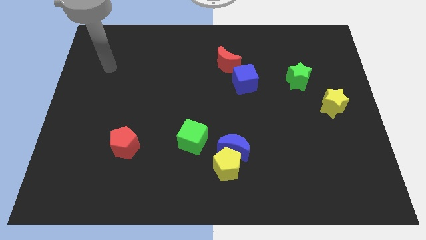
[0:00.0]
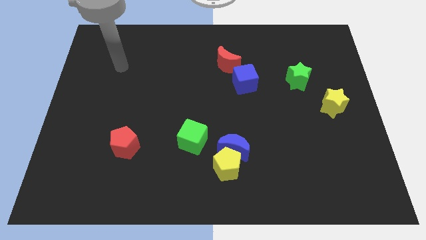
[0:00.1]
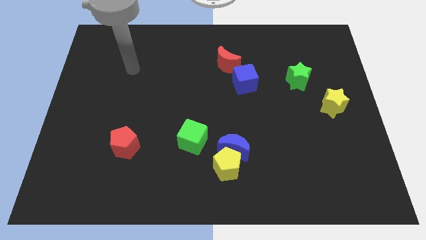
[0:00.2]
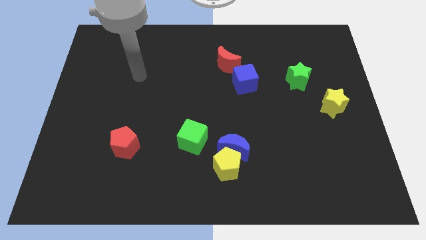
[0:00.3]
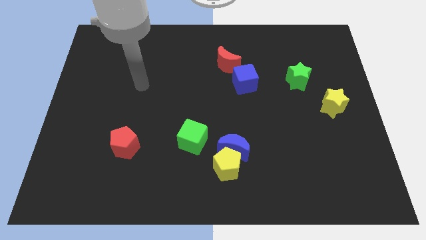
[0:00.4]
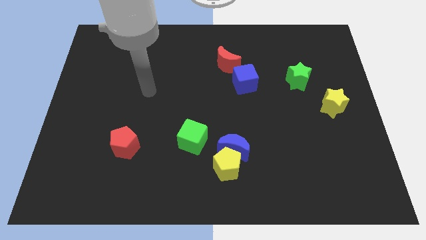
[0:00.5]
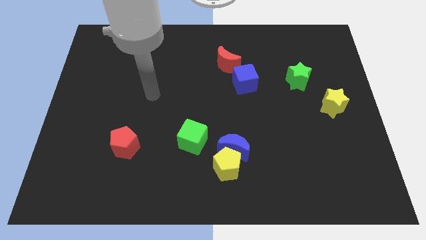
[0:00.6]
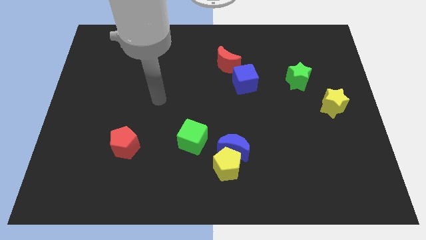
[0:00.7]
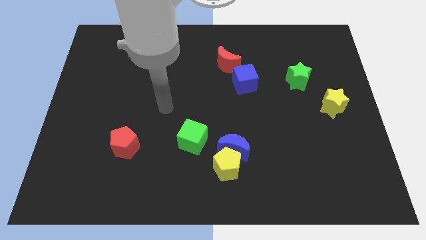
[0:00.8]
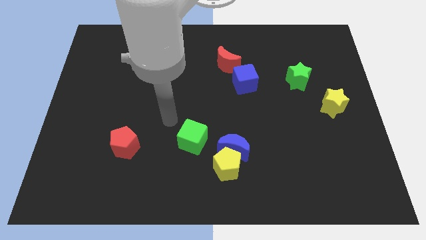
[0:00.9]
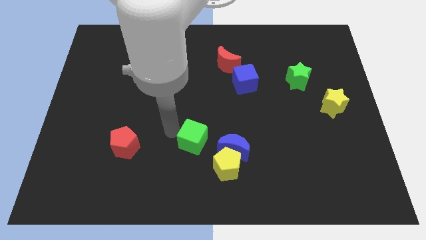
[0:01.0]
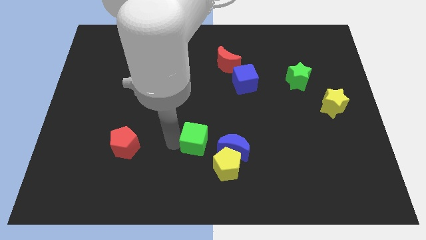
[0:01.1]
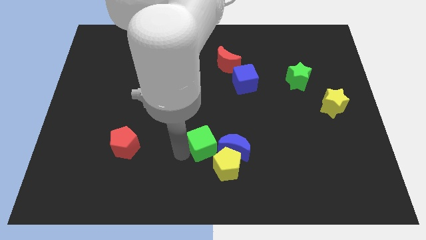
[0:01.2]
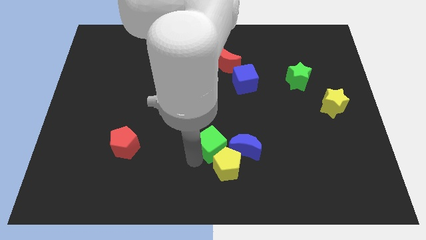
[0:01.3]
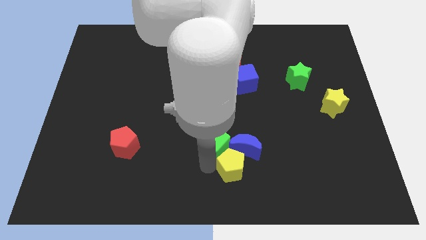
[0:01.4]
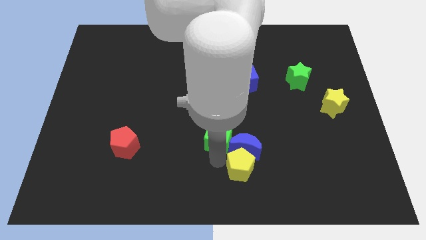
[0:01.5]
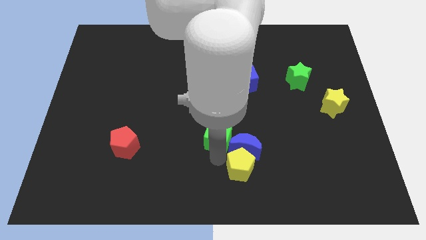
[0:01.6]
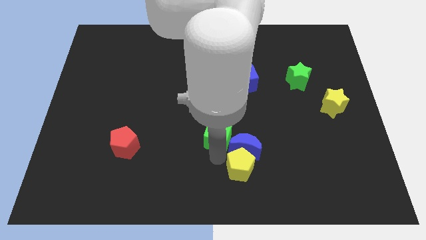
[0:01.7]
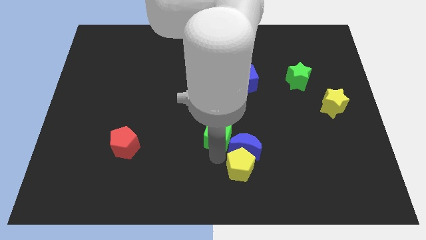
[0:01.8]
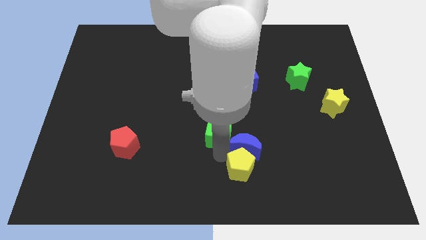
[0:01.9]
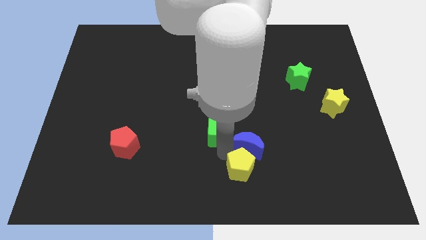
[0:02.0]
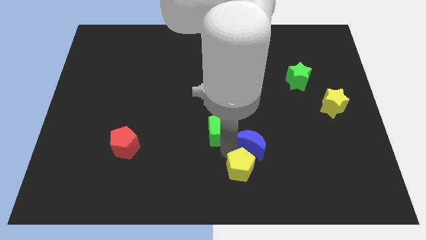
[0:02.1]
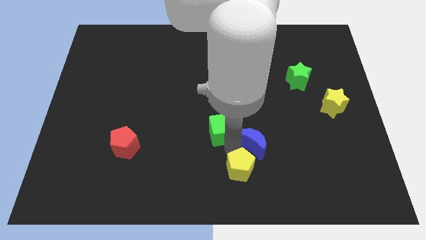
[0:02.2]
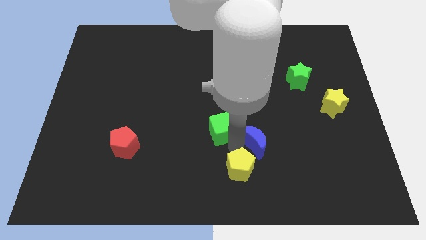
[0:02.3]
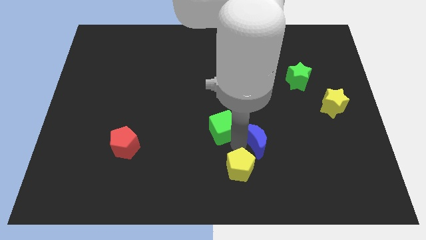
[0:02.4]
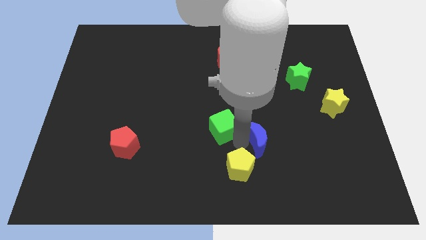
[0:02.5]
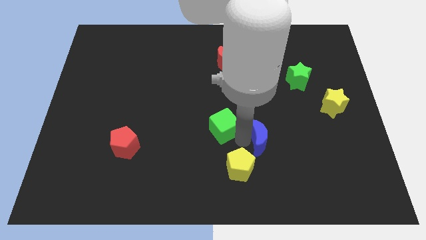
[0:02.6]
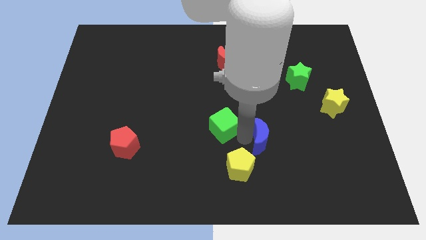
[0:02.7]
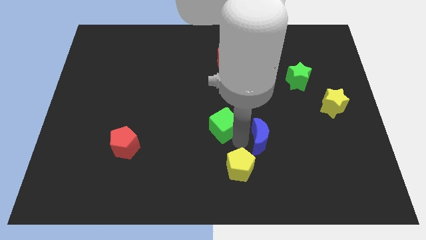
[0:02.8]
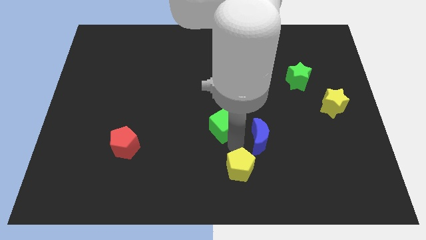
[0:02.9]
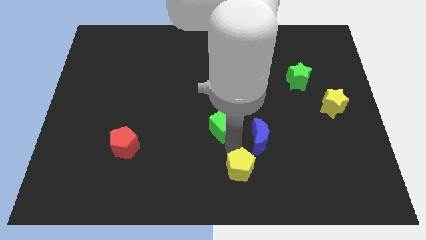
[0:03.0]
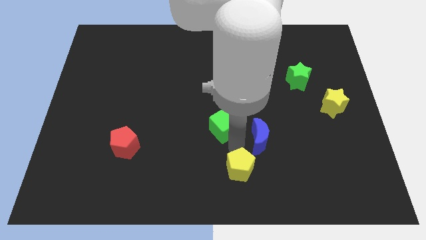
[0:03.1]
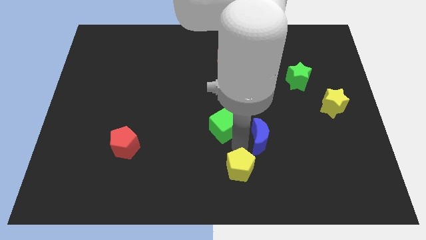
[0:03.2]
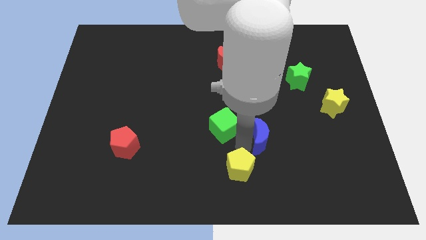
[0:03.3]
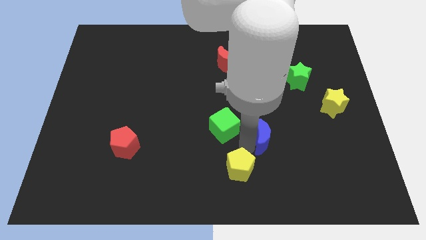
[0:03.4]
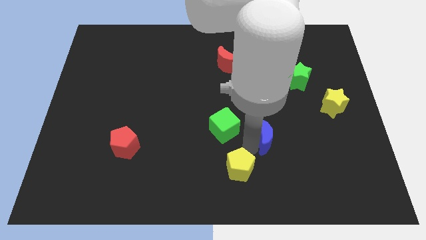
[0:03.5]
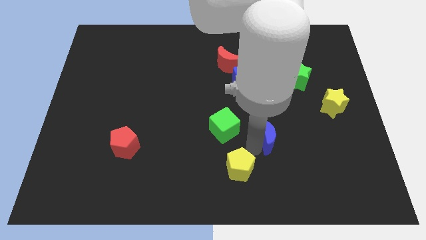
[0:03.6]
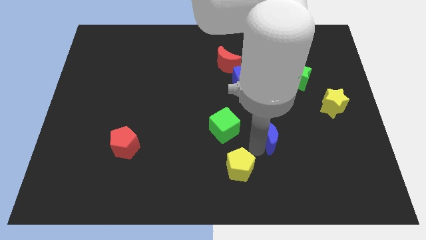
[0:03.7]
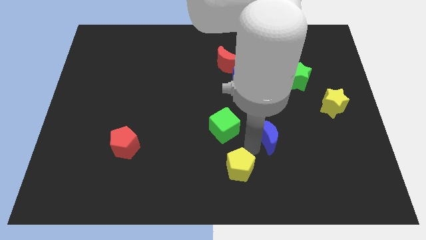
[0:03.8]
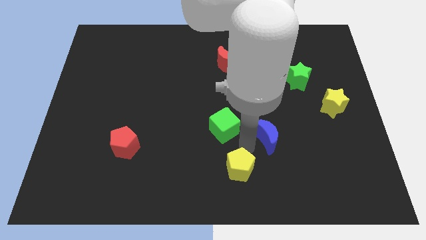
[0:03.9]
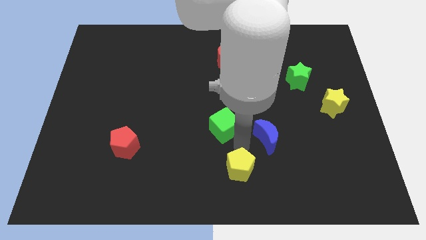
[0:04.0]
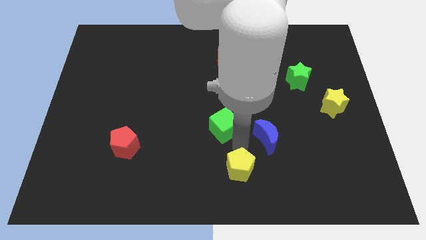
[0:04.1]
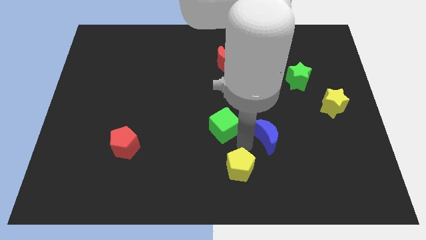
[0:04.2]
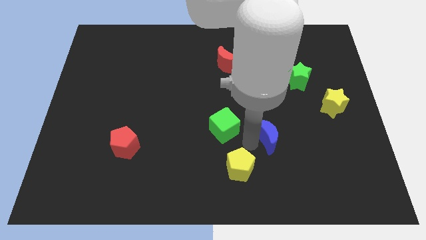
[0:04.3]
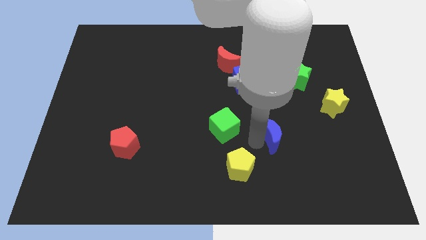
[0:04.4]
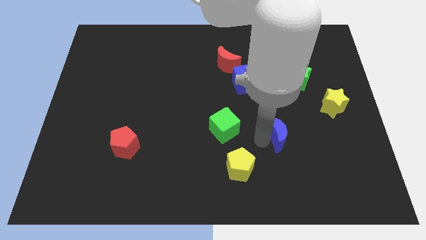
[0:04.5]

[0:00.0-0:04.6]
move the blue moon away from the yellow pentagon and green cube

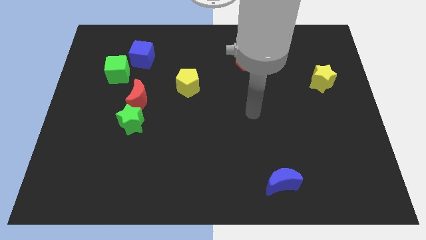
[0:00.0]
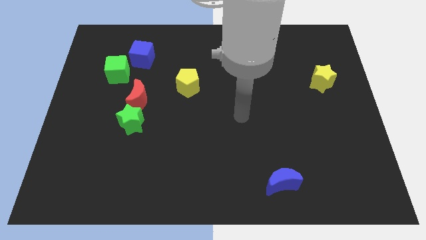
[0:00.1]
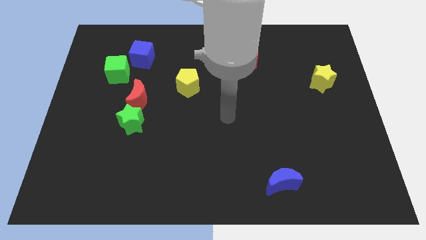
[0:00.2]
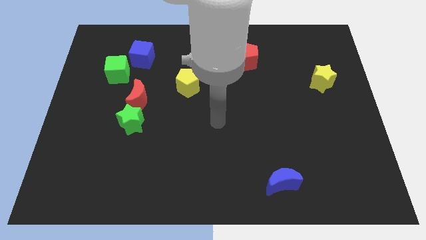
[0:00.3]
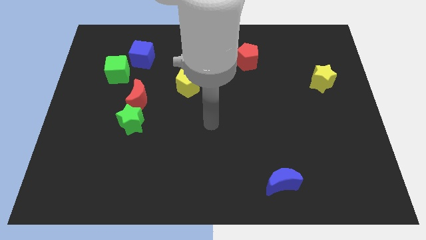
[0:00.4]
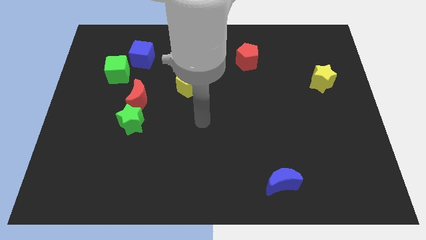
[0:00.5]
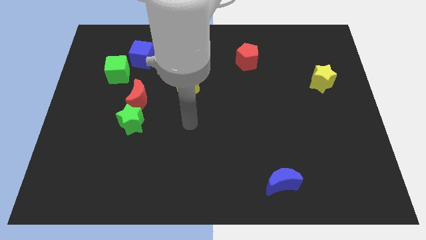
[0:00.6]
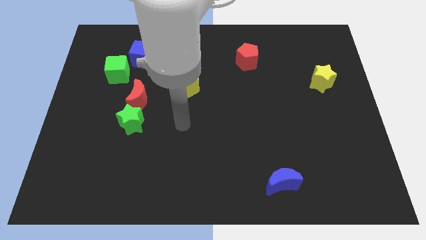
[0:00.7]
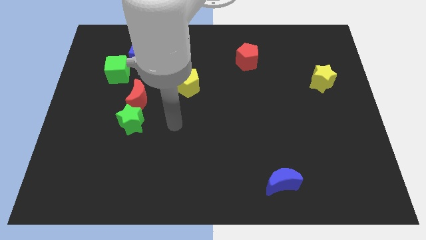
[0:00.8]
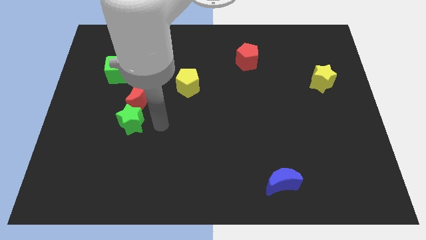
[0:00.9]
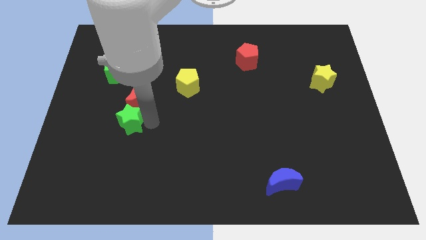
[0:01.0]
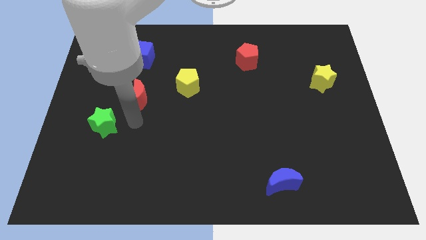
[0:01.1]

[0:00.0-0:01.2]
separate the red moon from the green star

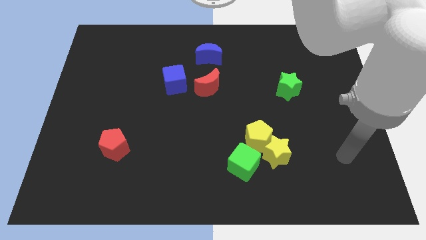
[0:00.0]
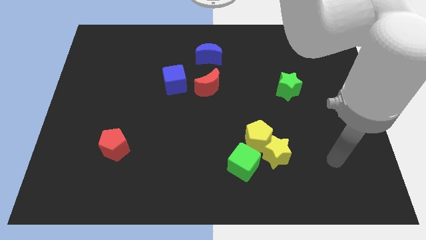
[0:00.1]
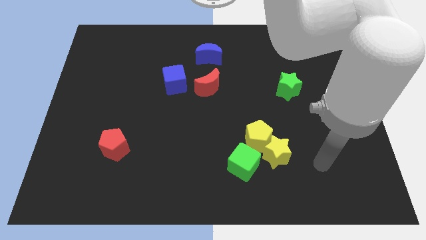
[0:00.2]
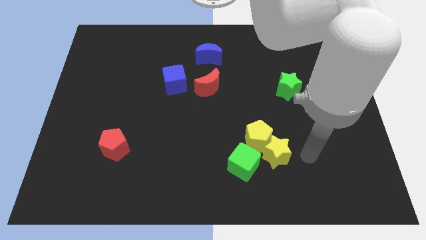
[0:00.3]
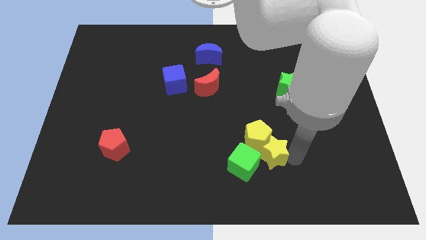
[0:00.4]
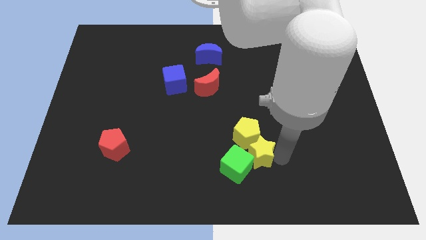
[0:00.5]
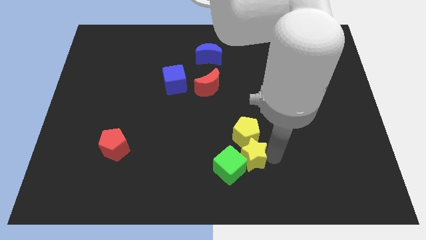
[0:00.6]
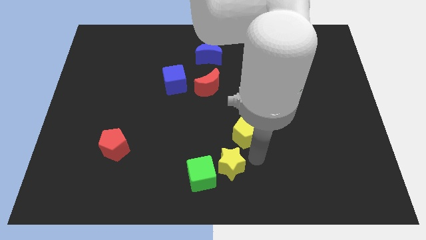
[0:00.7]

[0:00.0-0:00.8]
move the yellow pentagon away from the yellow star and green cube

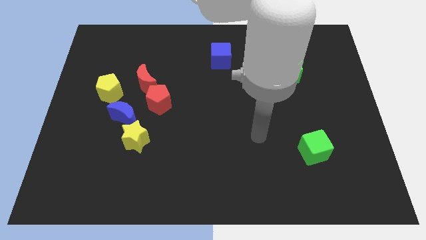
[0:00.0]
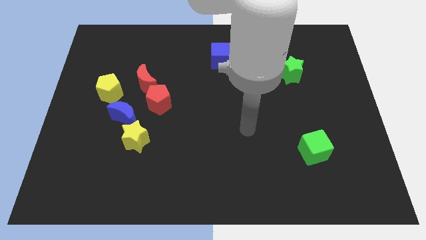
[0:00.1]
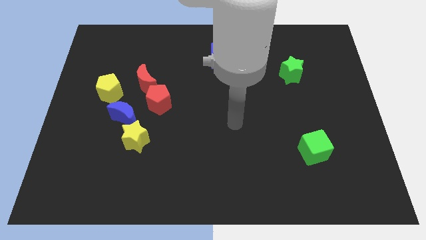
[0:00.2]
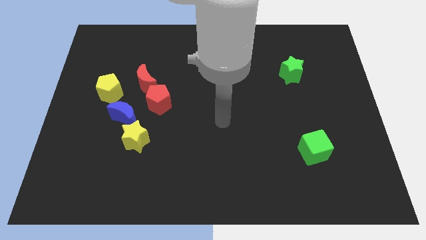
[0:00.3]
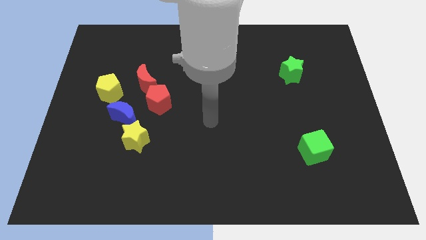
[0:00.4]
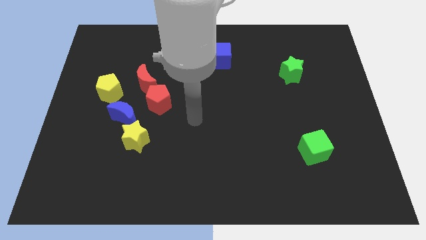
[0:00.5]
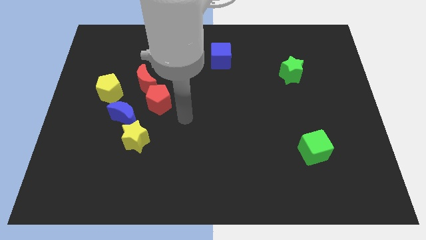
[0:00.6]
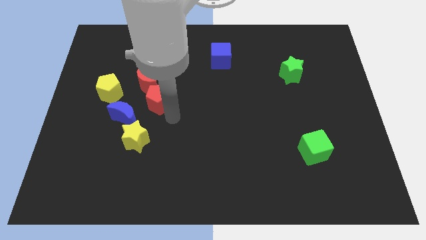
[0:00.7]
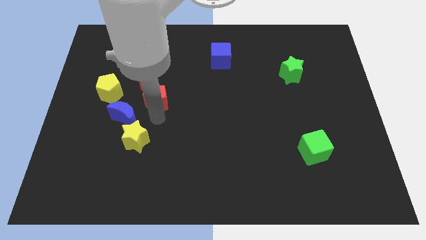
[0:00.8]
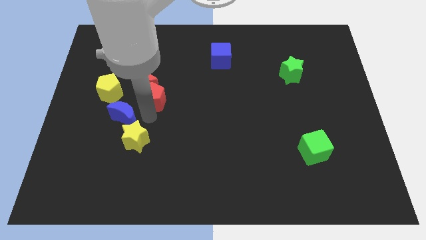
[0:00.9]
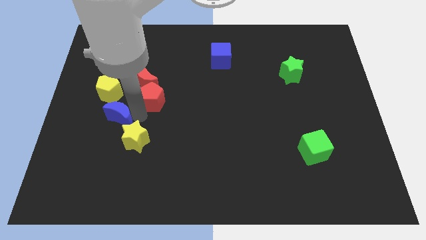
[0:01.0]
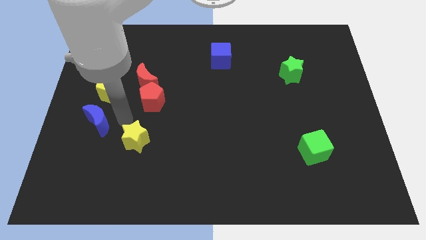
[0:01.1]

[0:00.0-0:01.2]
separate the yellow star from the blue moon

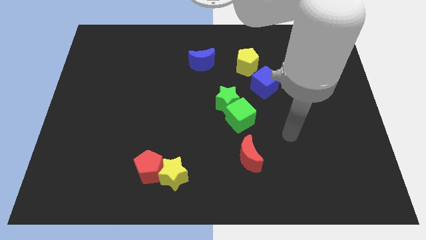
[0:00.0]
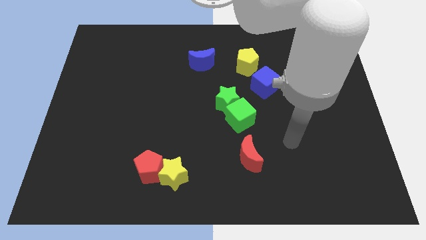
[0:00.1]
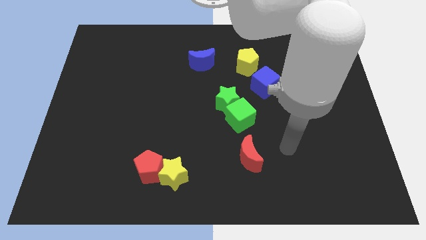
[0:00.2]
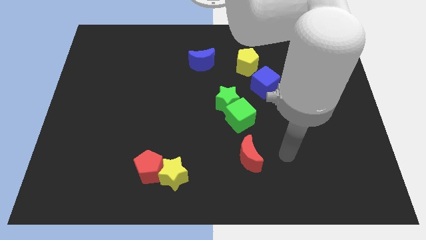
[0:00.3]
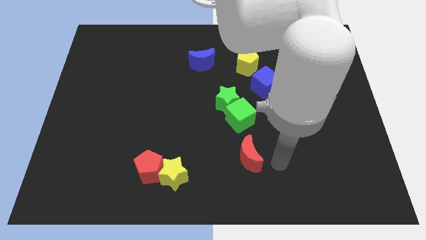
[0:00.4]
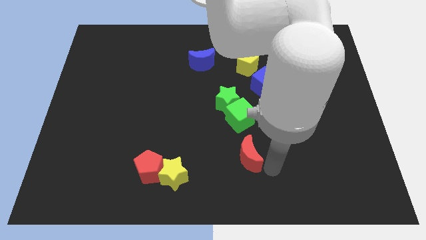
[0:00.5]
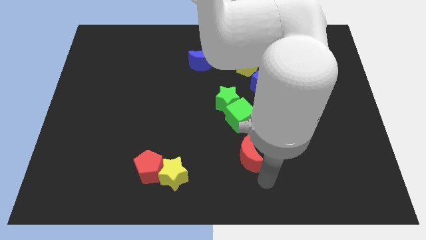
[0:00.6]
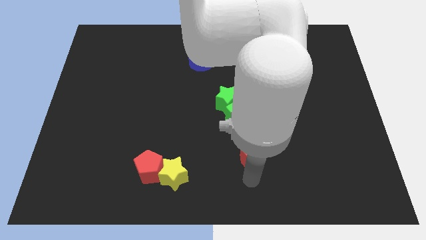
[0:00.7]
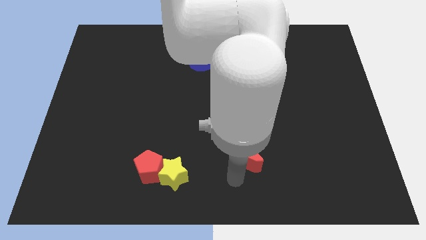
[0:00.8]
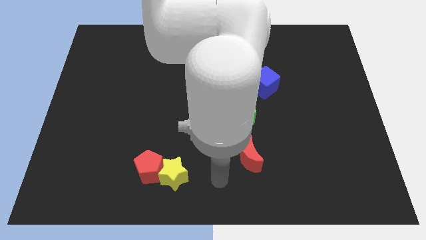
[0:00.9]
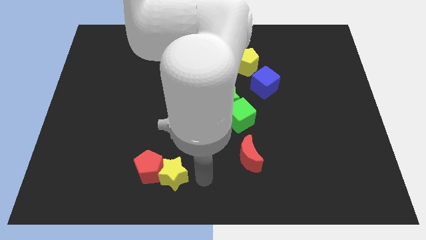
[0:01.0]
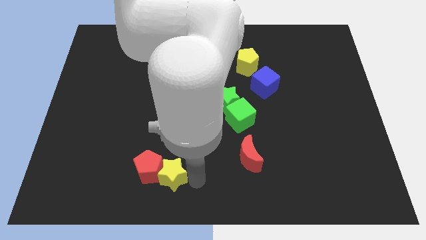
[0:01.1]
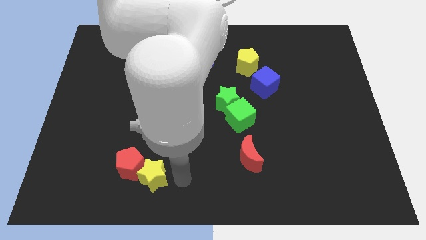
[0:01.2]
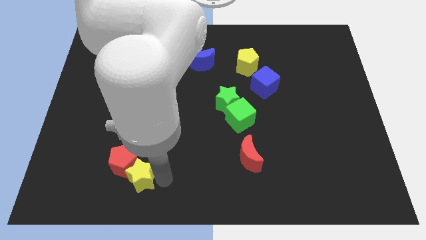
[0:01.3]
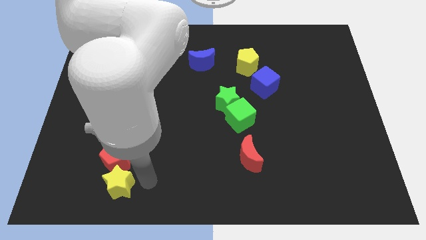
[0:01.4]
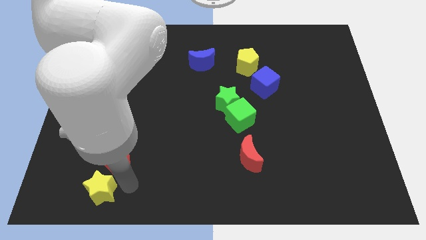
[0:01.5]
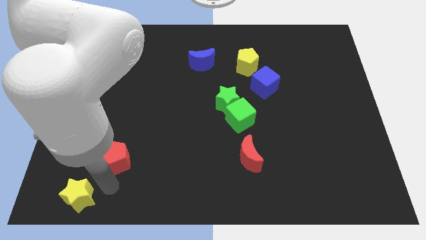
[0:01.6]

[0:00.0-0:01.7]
separate the red pentagon from the yellow star
